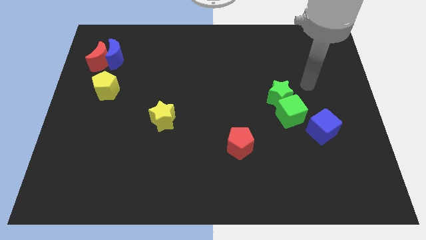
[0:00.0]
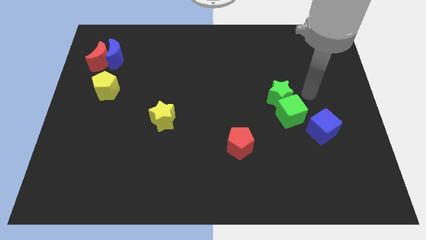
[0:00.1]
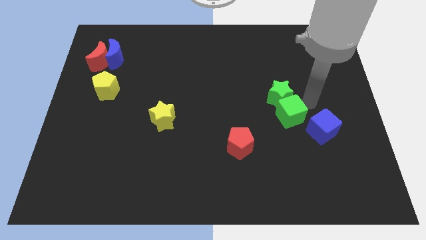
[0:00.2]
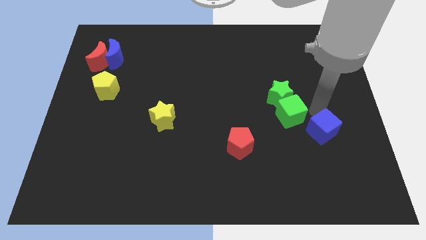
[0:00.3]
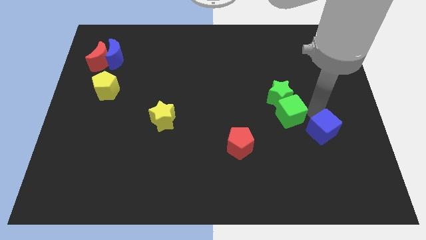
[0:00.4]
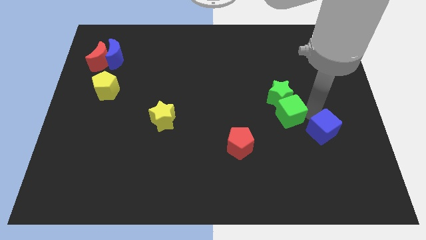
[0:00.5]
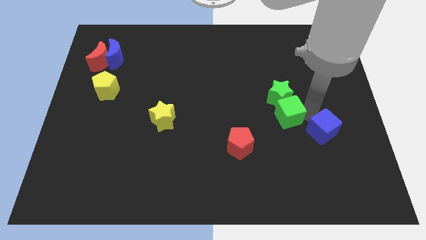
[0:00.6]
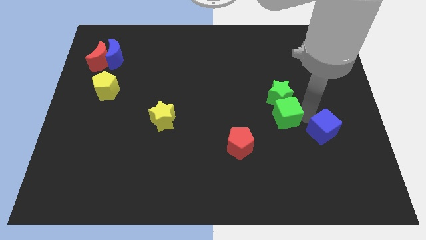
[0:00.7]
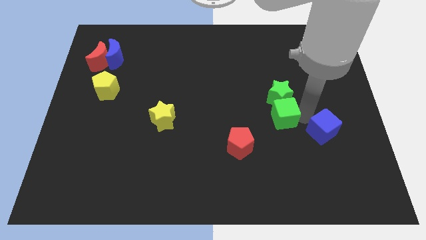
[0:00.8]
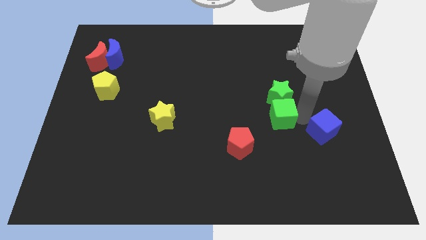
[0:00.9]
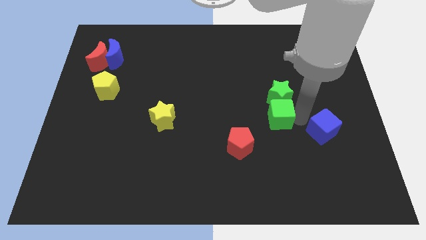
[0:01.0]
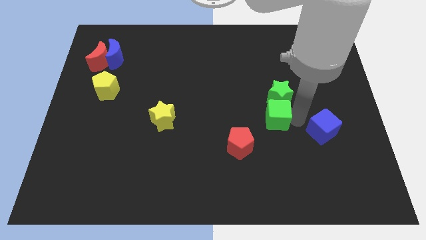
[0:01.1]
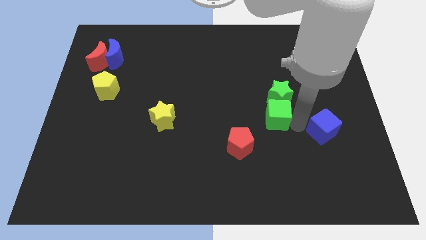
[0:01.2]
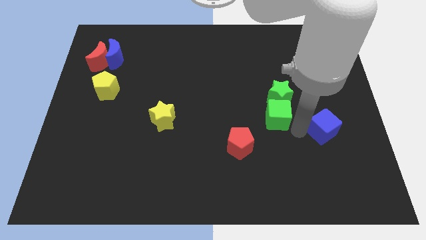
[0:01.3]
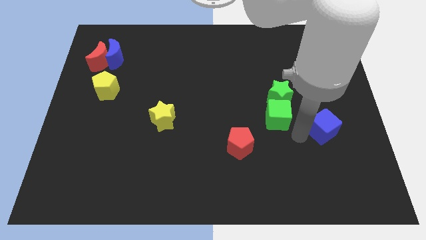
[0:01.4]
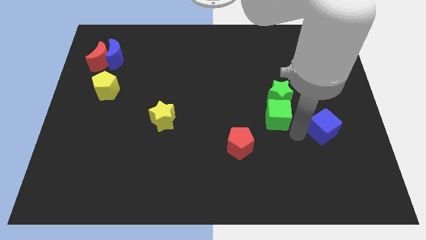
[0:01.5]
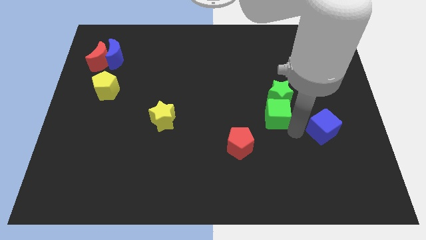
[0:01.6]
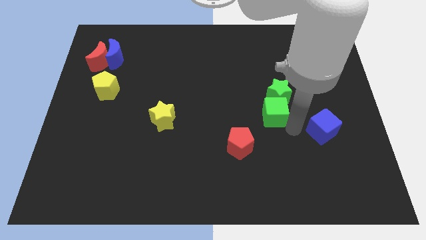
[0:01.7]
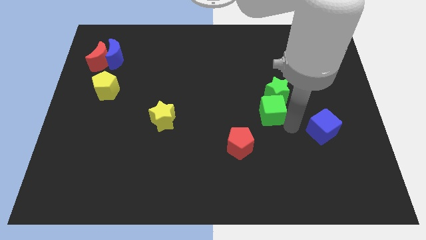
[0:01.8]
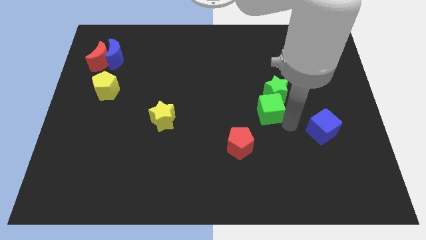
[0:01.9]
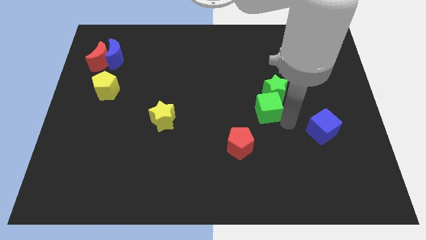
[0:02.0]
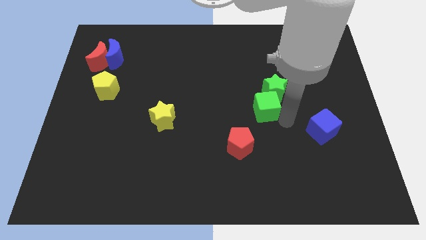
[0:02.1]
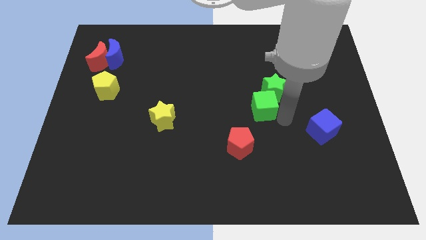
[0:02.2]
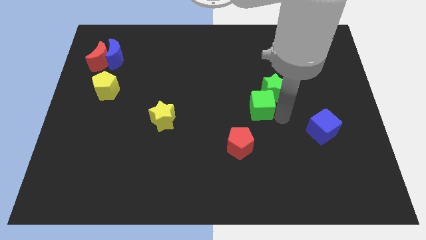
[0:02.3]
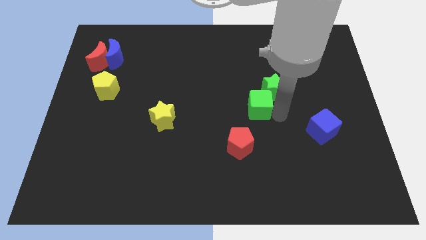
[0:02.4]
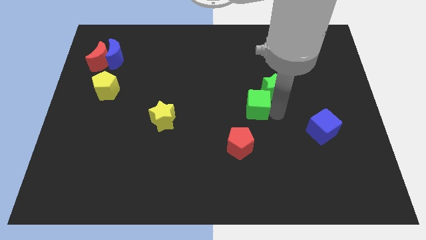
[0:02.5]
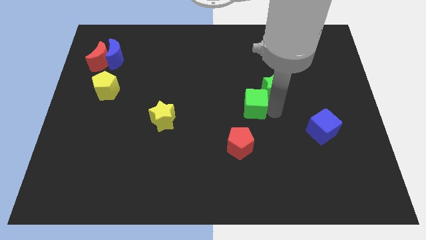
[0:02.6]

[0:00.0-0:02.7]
move the green cube upwards and to the left slightly

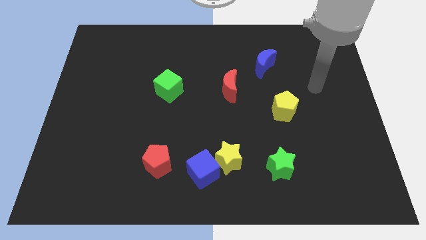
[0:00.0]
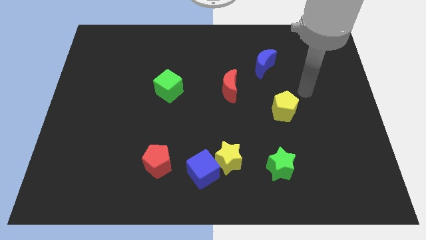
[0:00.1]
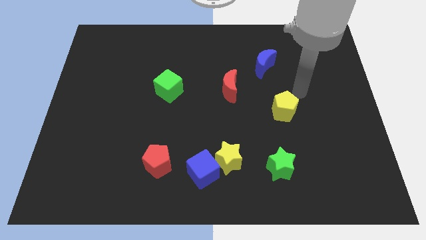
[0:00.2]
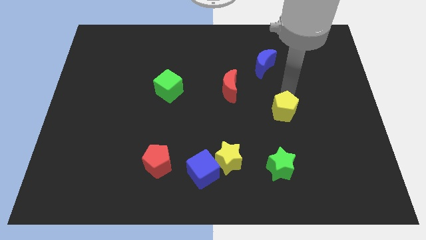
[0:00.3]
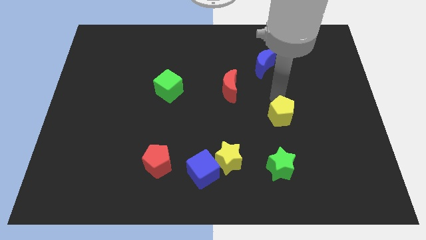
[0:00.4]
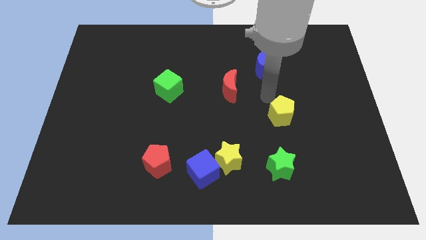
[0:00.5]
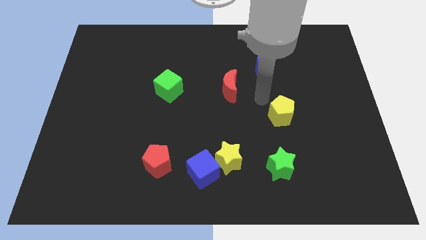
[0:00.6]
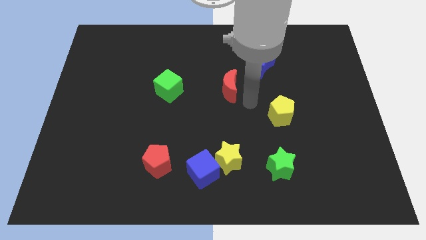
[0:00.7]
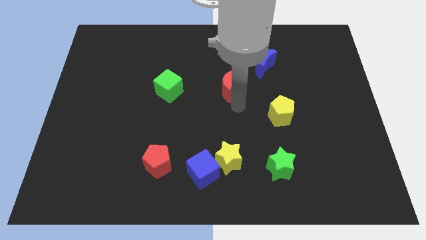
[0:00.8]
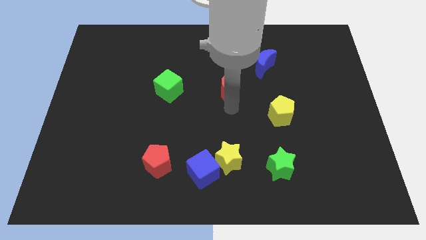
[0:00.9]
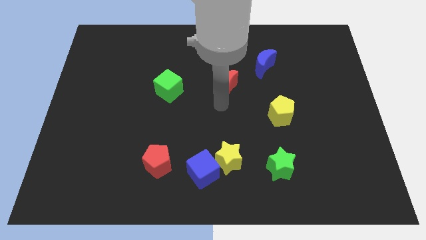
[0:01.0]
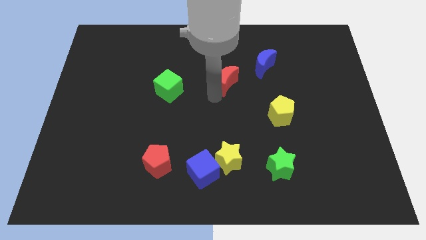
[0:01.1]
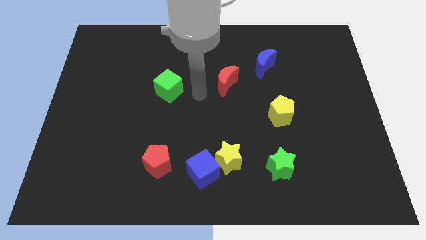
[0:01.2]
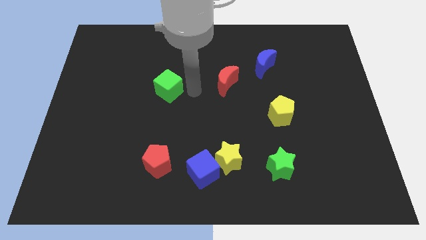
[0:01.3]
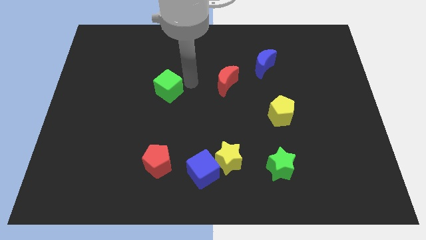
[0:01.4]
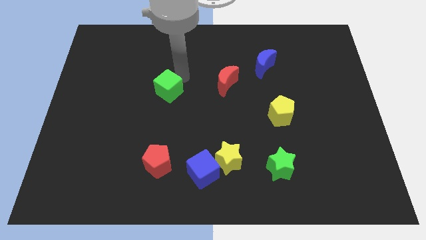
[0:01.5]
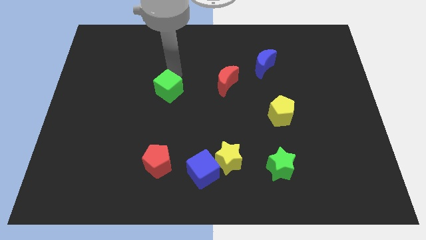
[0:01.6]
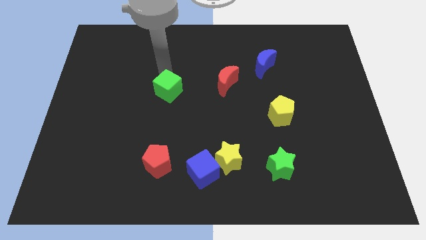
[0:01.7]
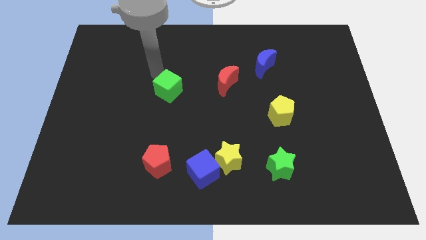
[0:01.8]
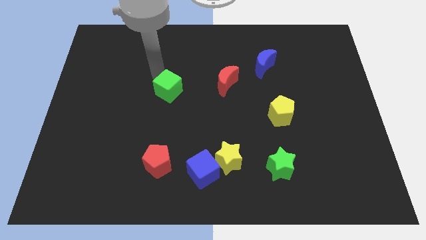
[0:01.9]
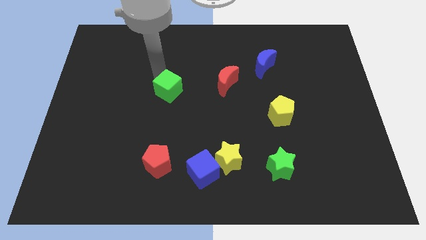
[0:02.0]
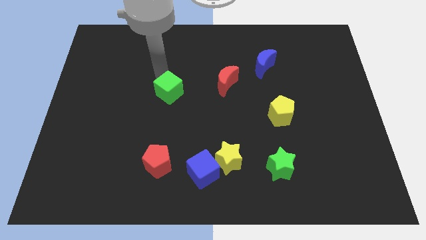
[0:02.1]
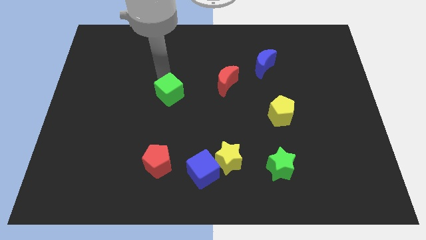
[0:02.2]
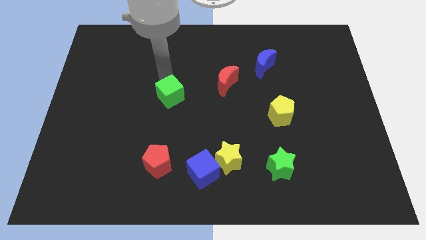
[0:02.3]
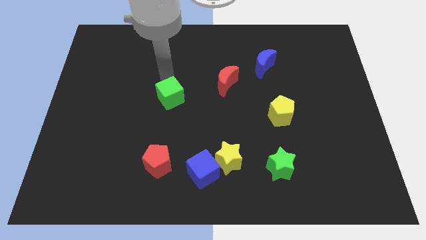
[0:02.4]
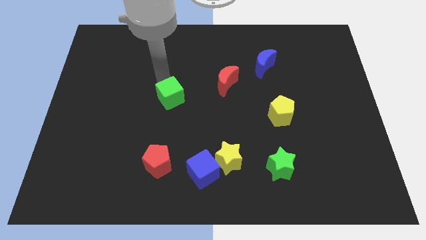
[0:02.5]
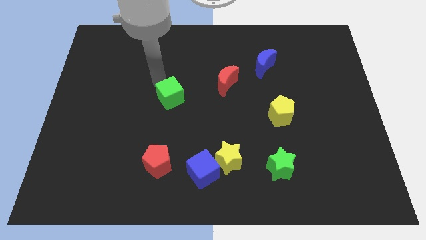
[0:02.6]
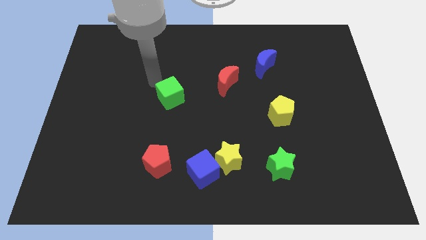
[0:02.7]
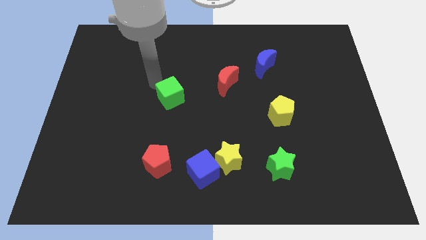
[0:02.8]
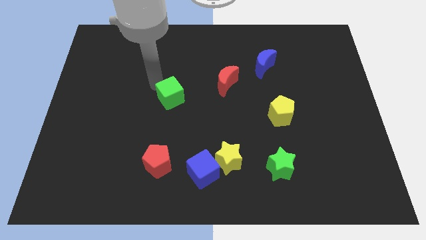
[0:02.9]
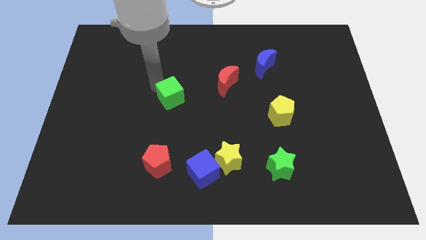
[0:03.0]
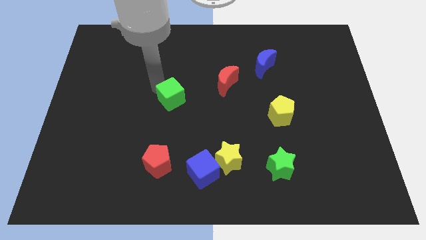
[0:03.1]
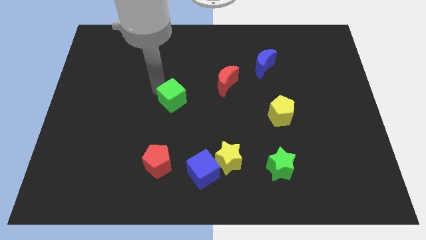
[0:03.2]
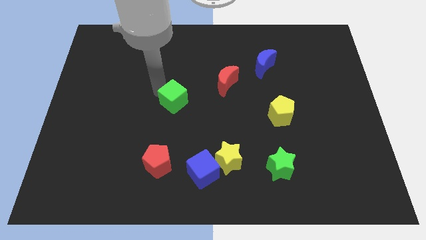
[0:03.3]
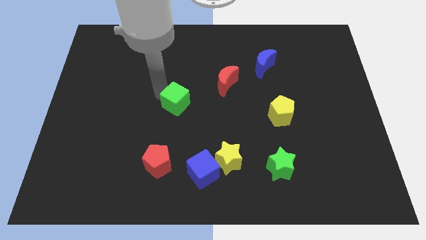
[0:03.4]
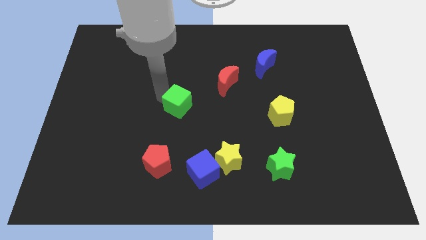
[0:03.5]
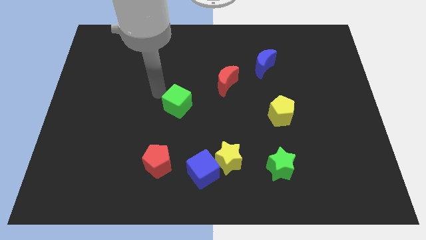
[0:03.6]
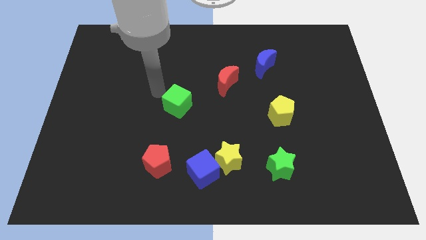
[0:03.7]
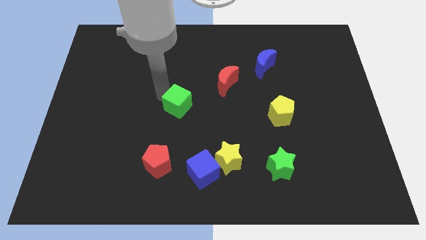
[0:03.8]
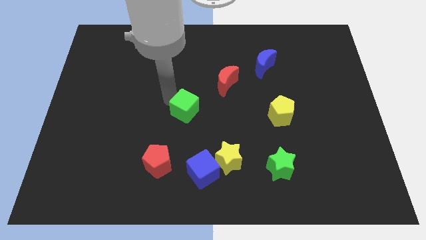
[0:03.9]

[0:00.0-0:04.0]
move the green cube slightly down and right diagonally

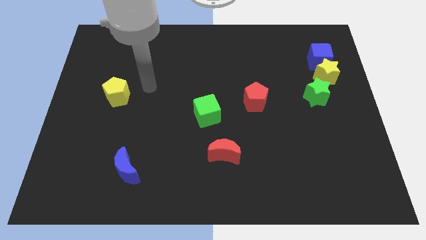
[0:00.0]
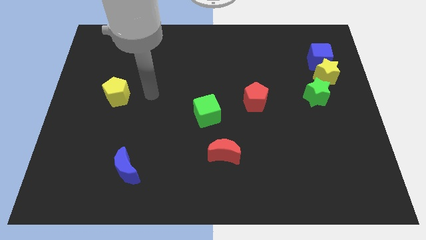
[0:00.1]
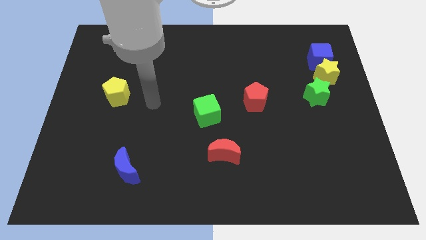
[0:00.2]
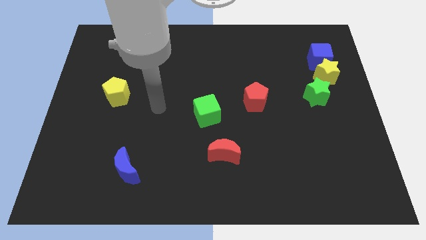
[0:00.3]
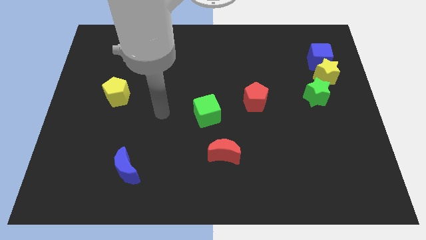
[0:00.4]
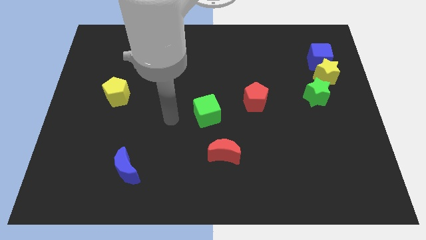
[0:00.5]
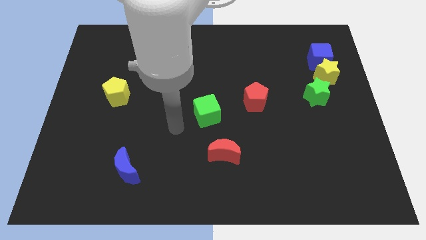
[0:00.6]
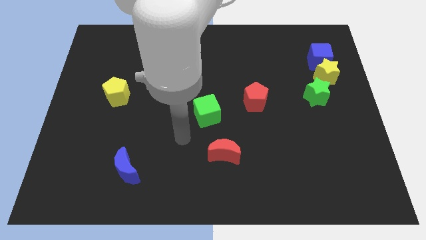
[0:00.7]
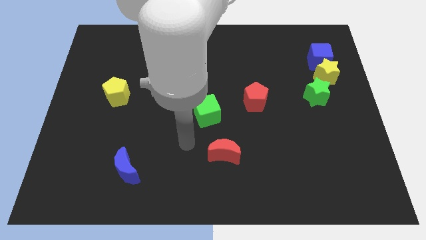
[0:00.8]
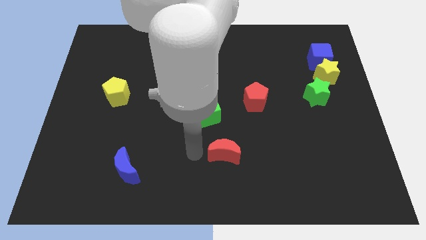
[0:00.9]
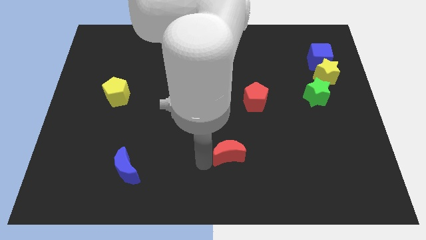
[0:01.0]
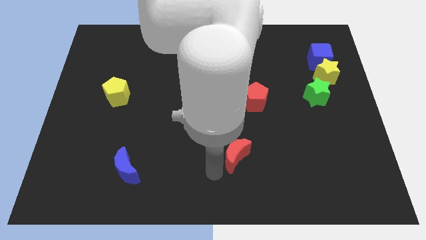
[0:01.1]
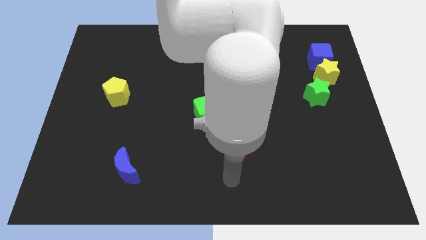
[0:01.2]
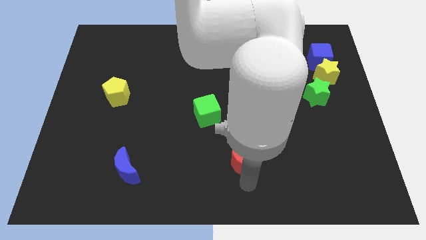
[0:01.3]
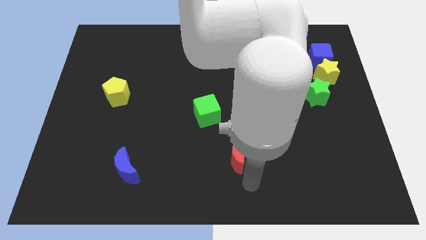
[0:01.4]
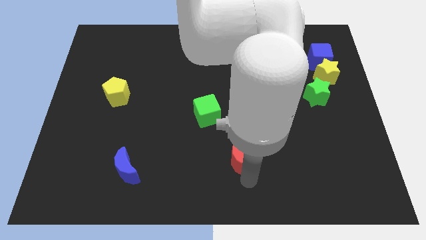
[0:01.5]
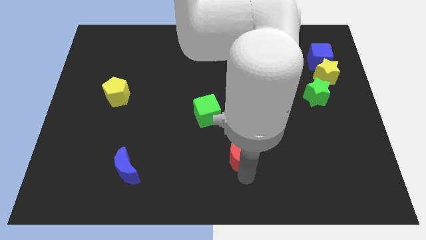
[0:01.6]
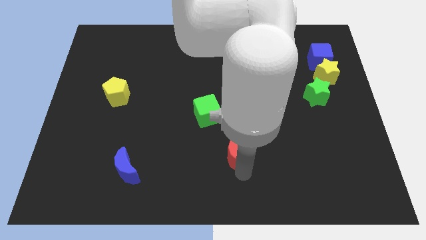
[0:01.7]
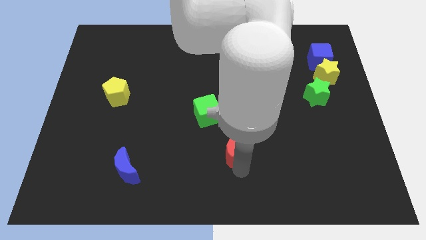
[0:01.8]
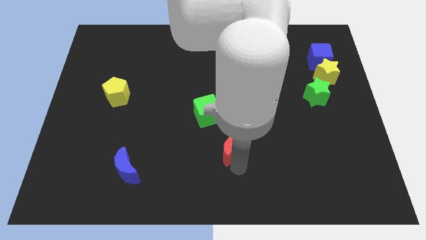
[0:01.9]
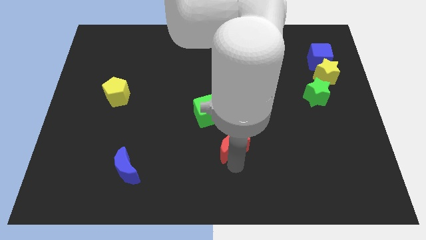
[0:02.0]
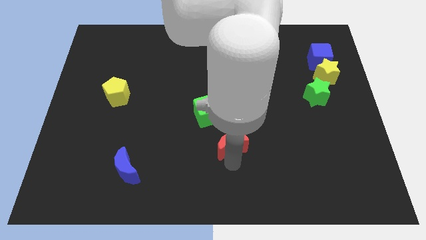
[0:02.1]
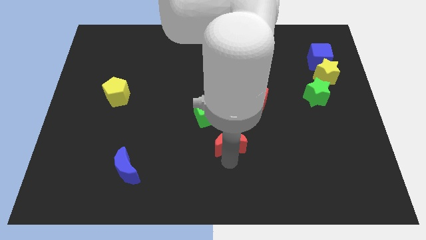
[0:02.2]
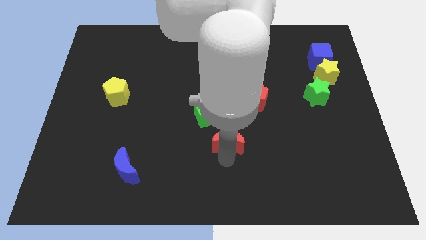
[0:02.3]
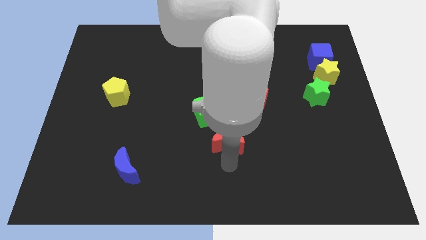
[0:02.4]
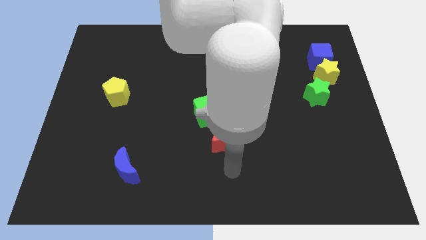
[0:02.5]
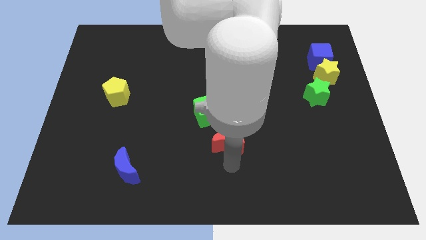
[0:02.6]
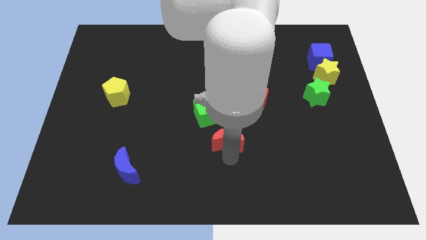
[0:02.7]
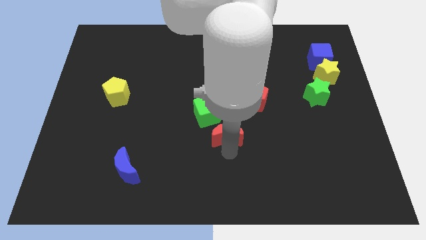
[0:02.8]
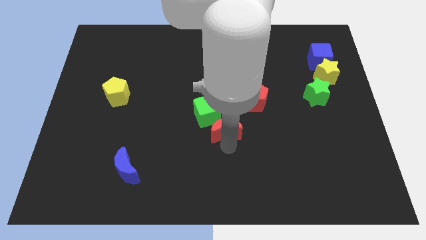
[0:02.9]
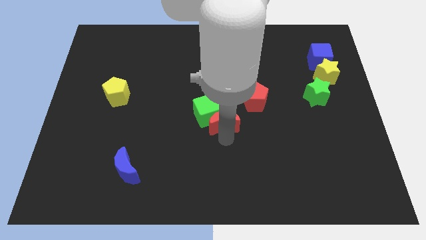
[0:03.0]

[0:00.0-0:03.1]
push the red moon a little bit up
